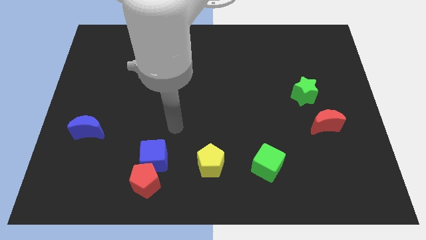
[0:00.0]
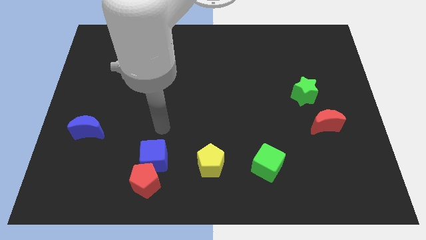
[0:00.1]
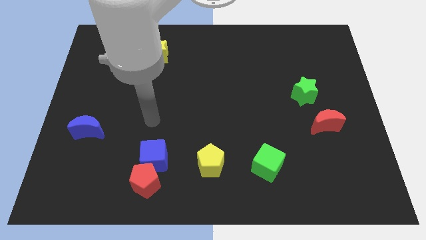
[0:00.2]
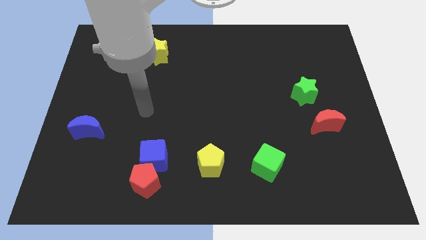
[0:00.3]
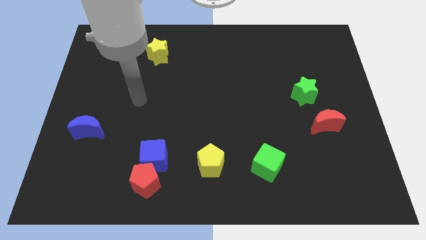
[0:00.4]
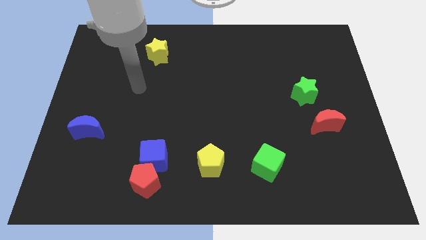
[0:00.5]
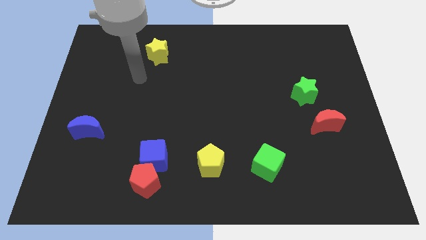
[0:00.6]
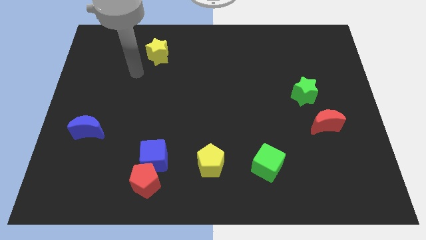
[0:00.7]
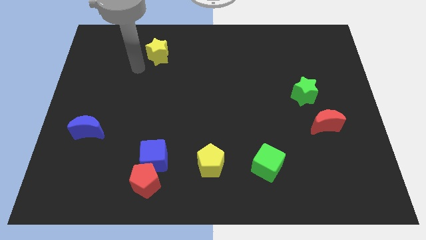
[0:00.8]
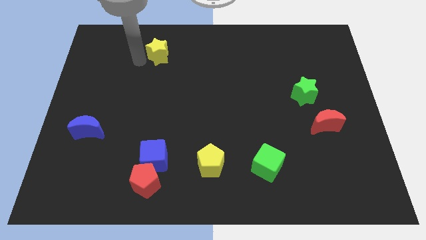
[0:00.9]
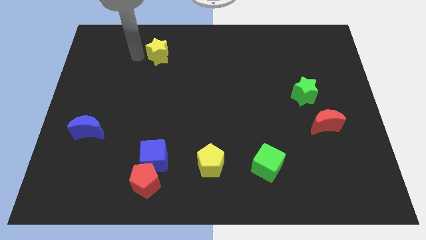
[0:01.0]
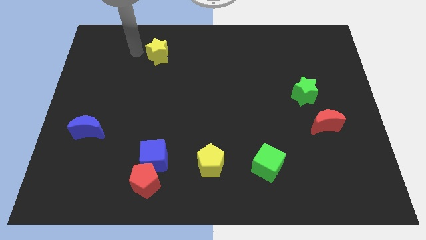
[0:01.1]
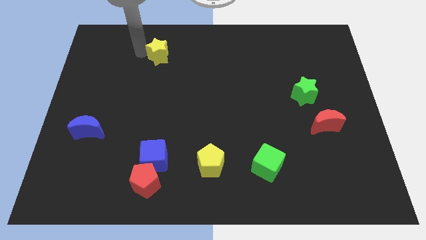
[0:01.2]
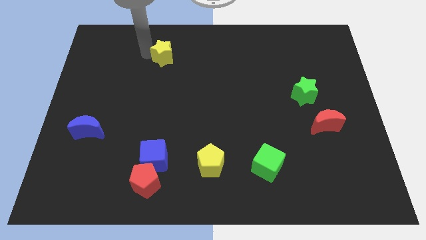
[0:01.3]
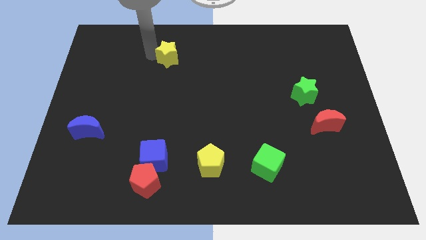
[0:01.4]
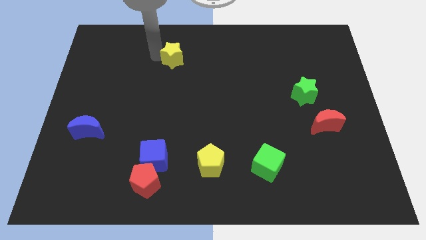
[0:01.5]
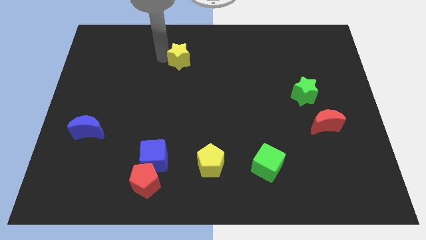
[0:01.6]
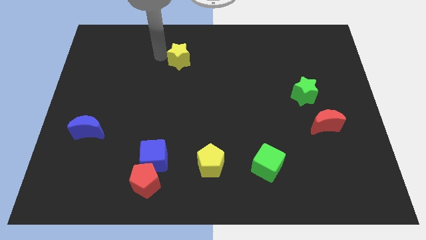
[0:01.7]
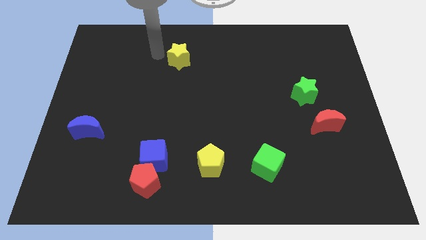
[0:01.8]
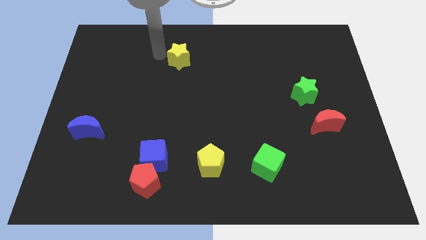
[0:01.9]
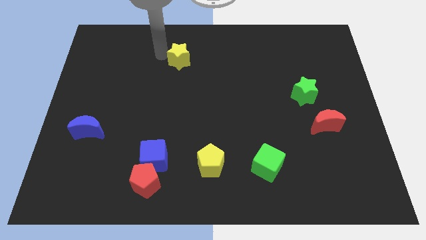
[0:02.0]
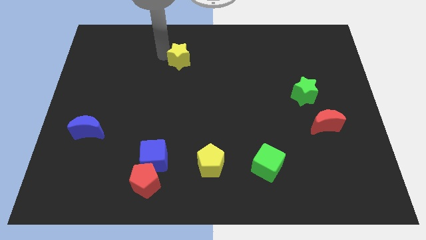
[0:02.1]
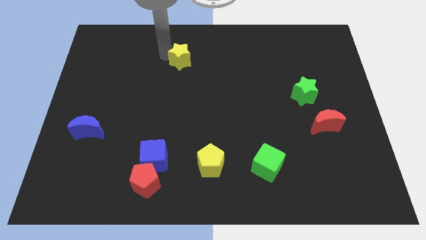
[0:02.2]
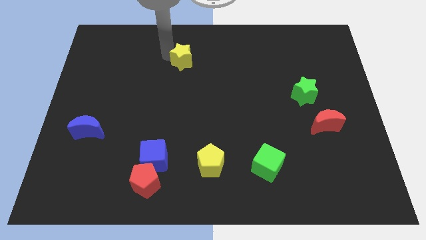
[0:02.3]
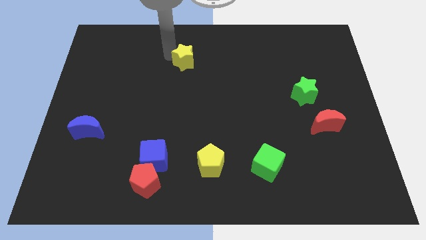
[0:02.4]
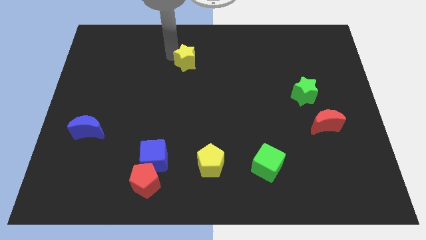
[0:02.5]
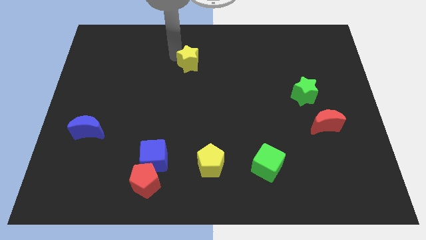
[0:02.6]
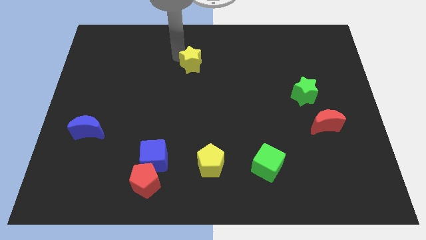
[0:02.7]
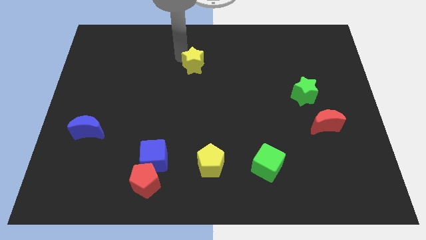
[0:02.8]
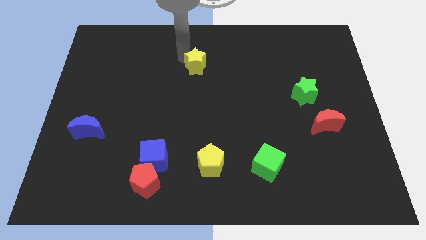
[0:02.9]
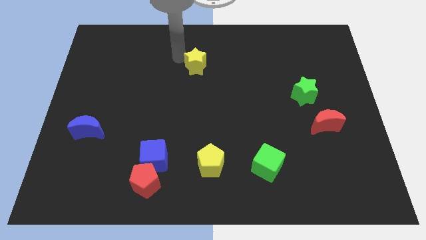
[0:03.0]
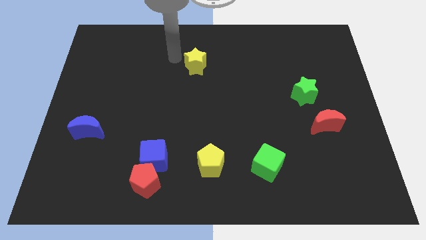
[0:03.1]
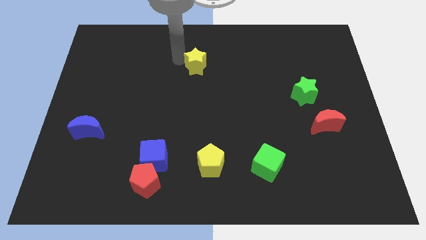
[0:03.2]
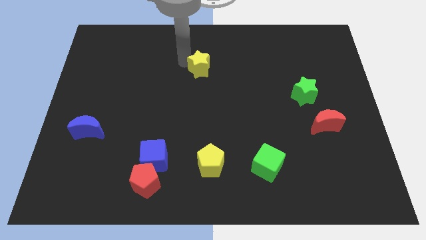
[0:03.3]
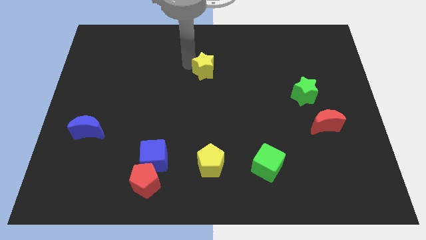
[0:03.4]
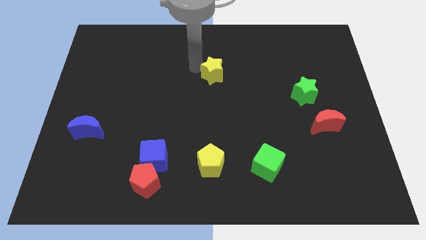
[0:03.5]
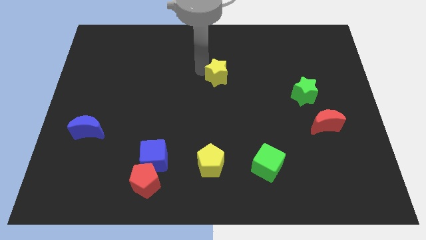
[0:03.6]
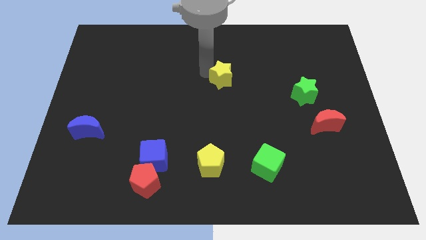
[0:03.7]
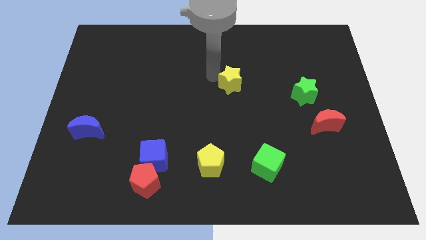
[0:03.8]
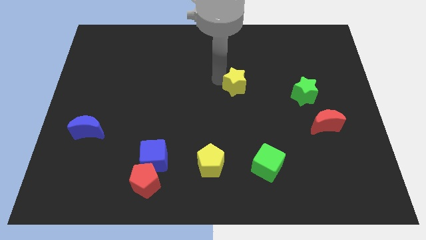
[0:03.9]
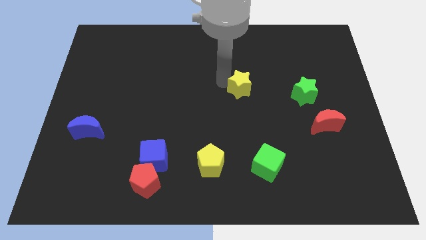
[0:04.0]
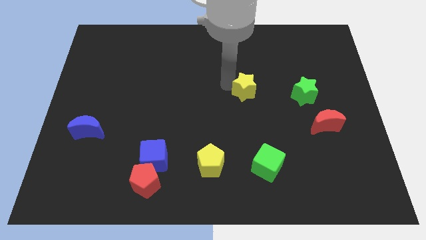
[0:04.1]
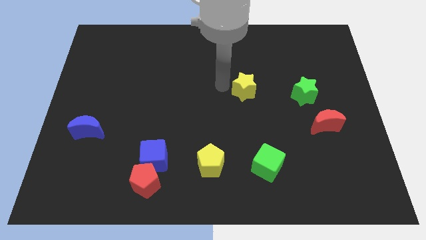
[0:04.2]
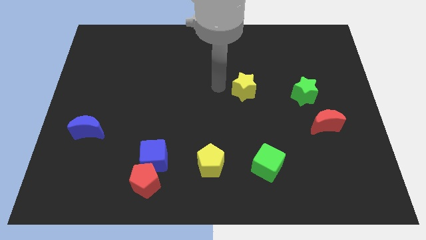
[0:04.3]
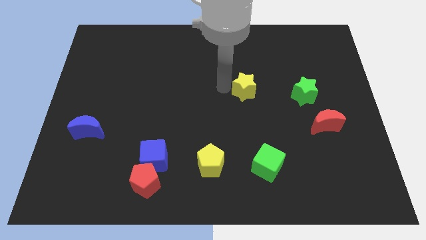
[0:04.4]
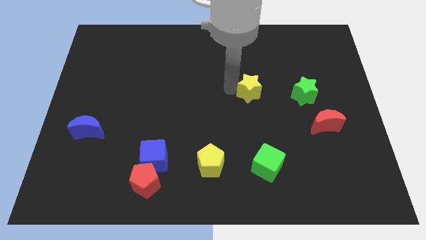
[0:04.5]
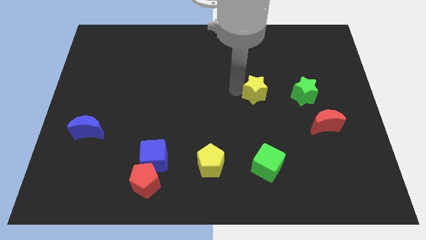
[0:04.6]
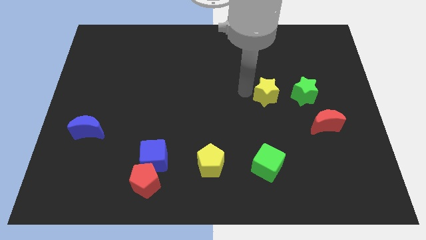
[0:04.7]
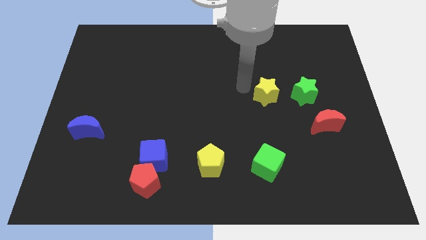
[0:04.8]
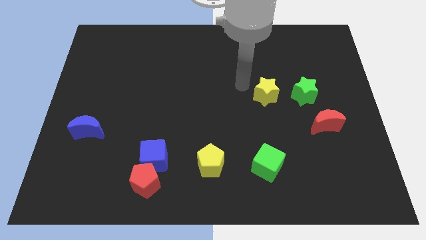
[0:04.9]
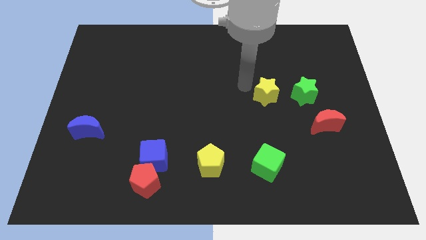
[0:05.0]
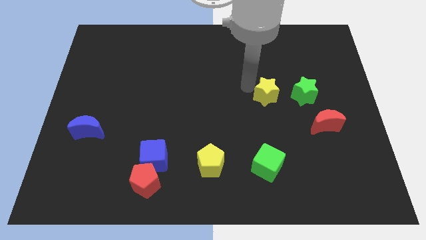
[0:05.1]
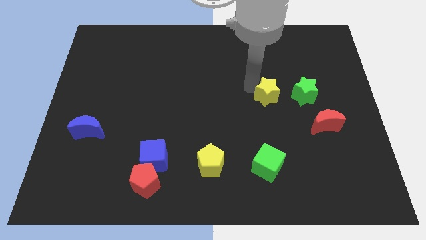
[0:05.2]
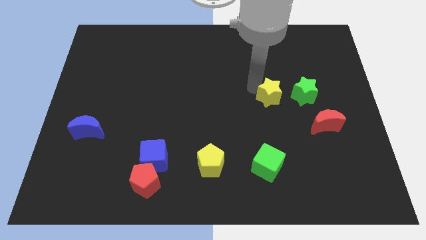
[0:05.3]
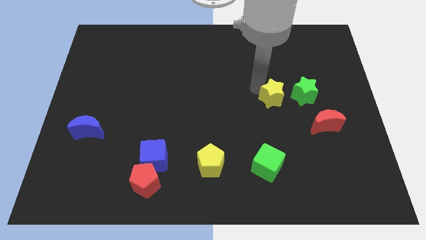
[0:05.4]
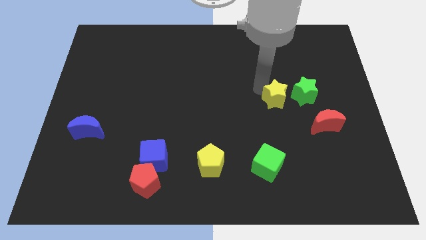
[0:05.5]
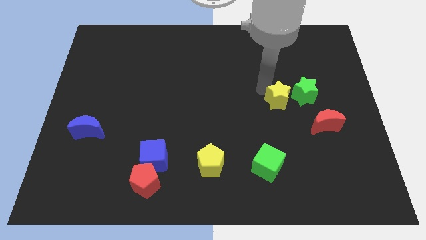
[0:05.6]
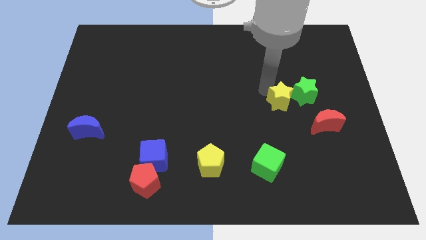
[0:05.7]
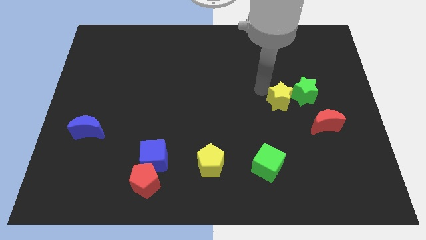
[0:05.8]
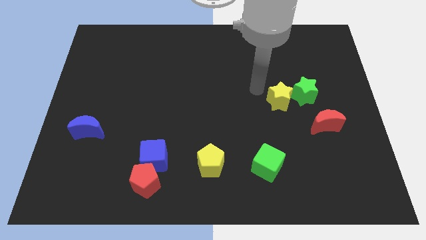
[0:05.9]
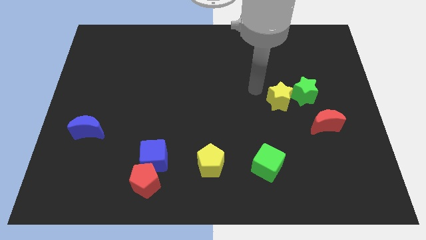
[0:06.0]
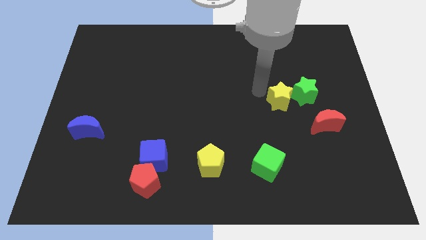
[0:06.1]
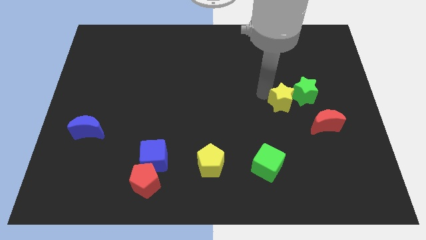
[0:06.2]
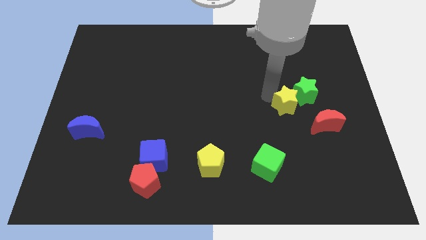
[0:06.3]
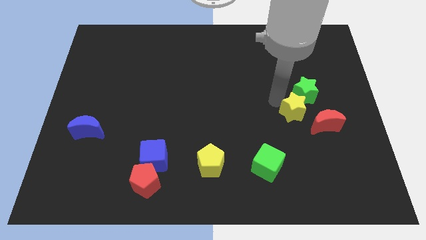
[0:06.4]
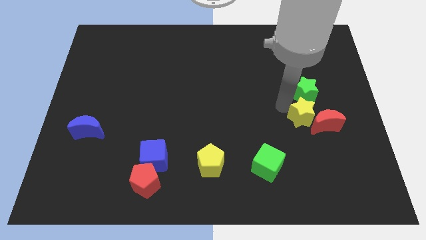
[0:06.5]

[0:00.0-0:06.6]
push the yellow star towards the red moon
